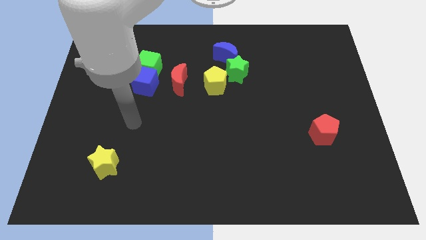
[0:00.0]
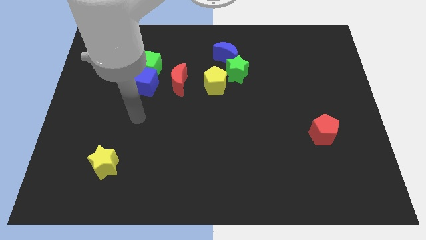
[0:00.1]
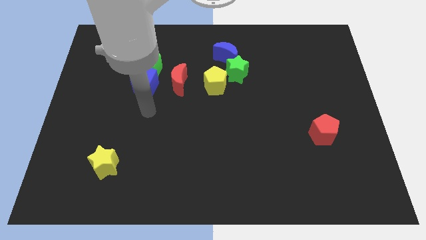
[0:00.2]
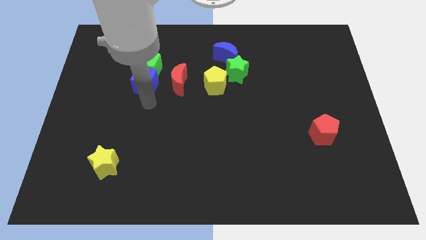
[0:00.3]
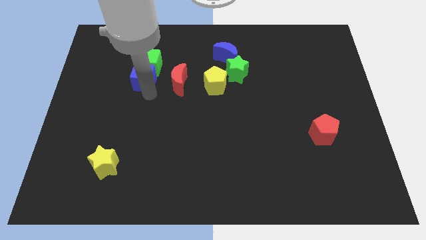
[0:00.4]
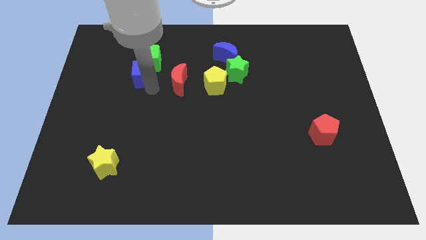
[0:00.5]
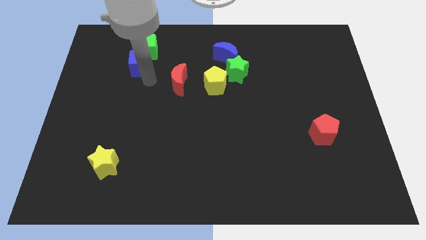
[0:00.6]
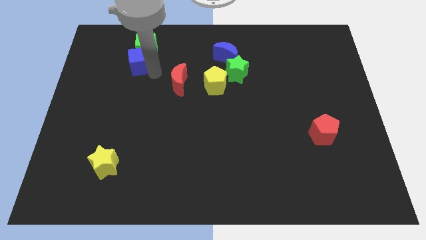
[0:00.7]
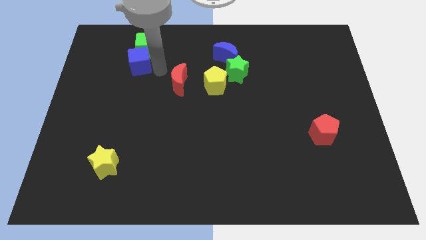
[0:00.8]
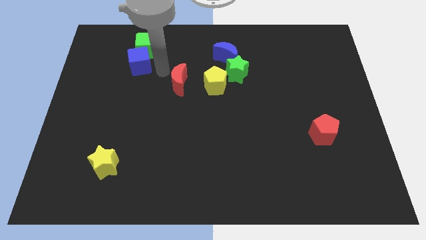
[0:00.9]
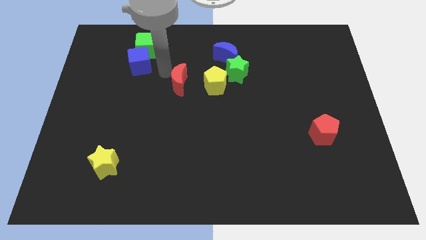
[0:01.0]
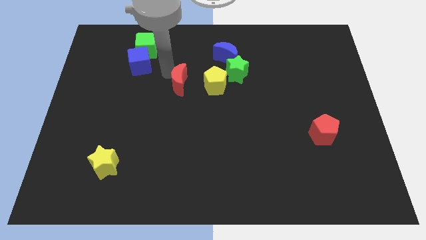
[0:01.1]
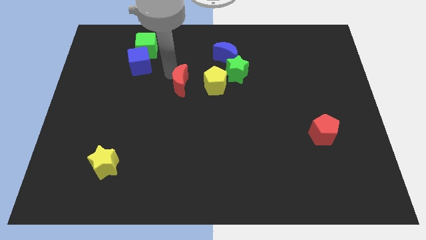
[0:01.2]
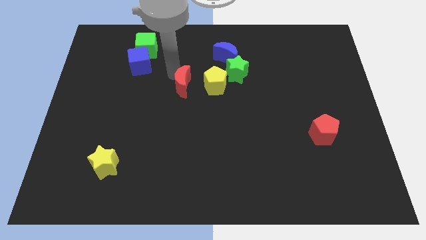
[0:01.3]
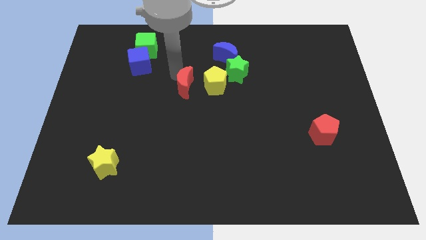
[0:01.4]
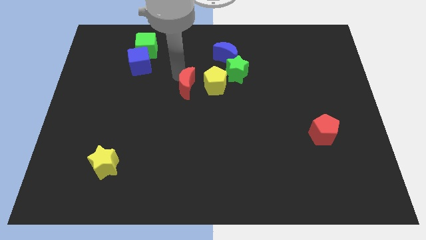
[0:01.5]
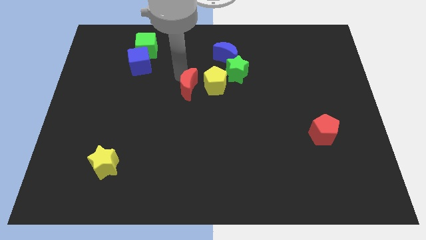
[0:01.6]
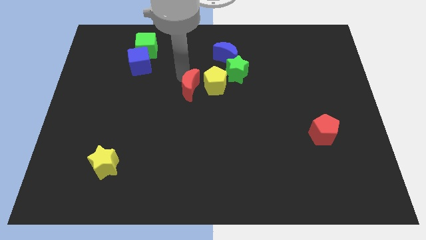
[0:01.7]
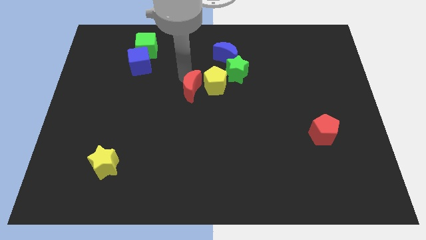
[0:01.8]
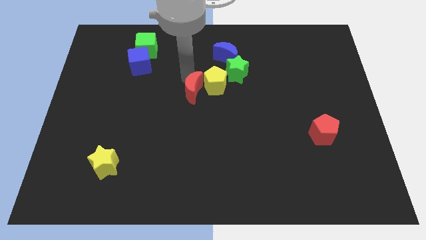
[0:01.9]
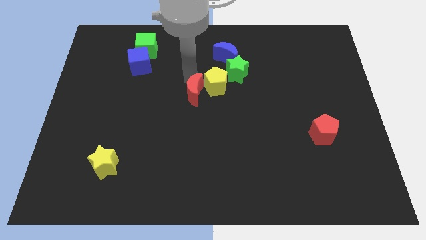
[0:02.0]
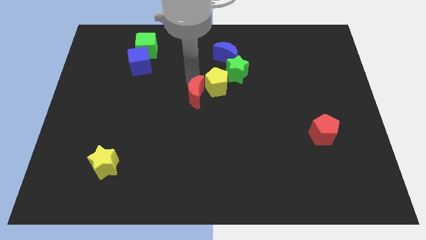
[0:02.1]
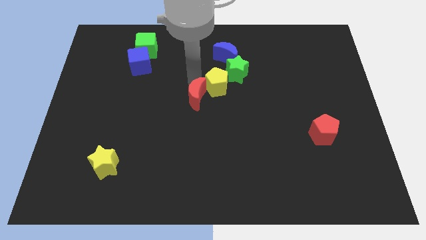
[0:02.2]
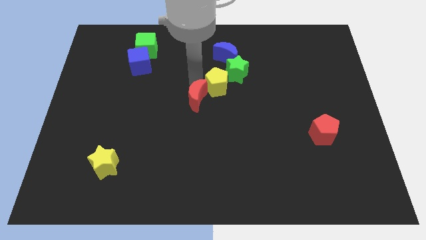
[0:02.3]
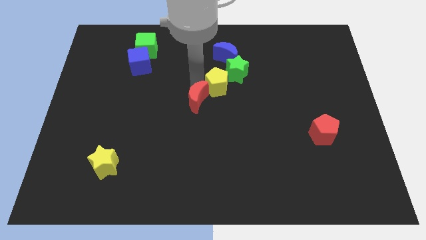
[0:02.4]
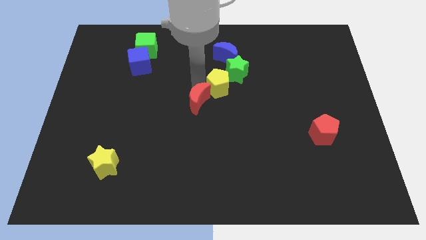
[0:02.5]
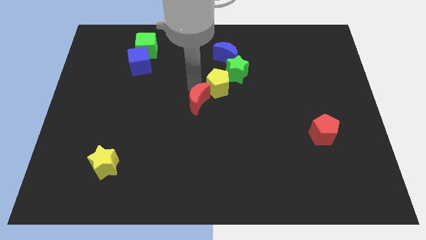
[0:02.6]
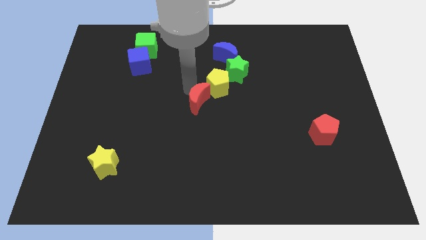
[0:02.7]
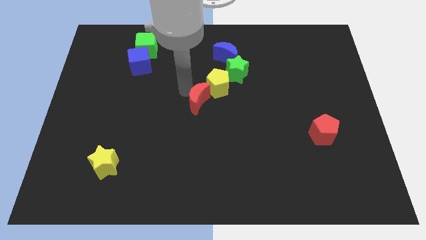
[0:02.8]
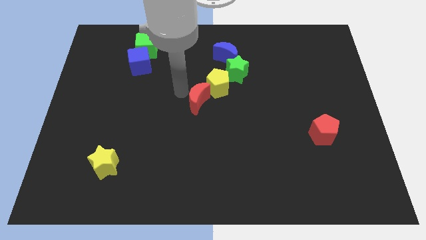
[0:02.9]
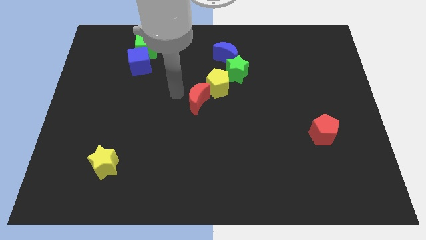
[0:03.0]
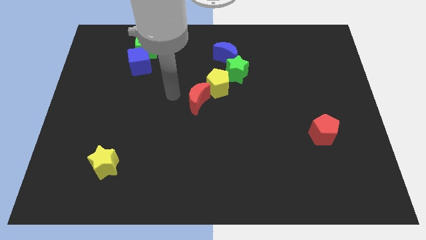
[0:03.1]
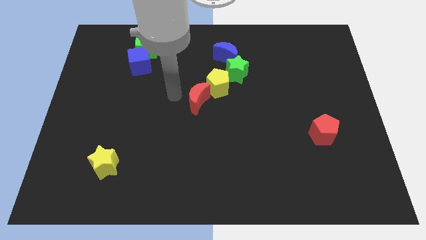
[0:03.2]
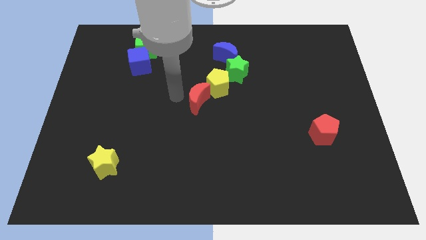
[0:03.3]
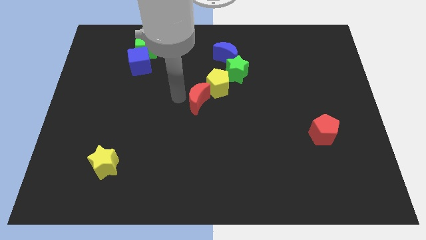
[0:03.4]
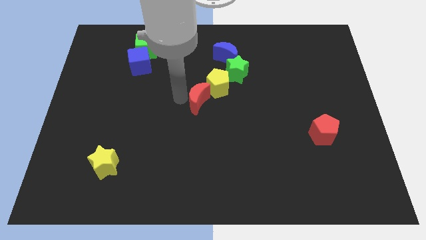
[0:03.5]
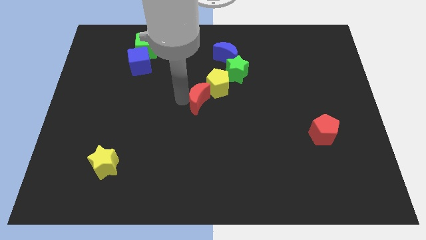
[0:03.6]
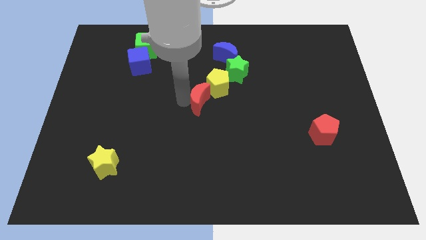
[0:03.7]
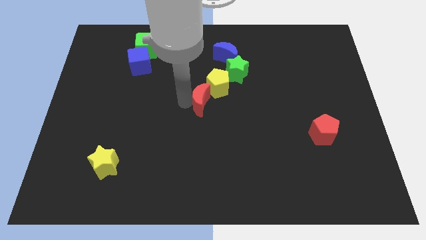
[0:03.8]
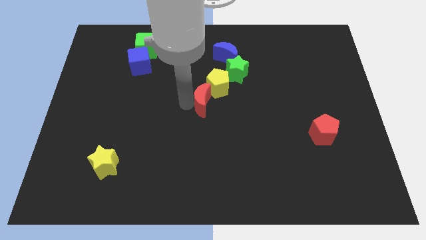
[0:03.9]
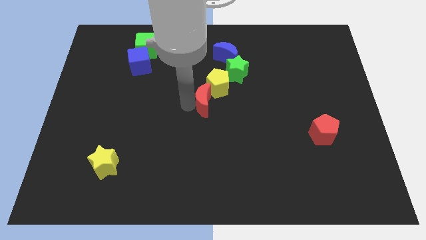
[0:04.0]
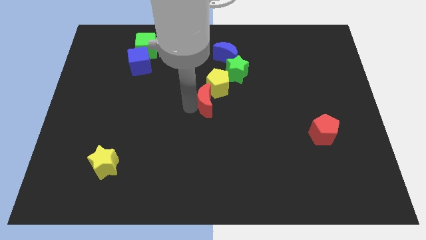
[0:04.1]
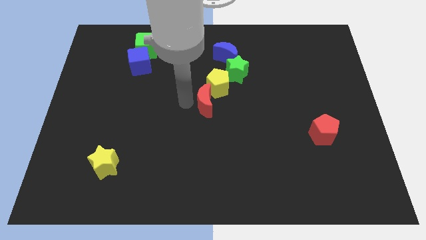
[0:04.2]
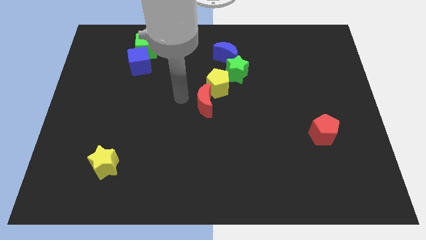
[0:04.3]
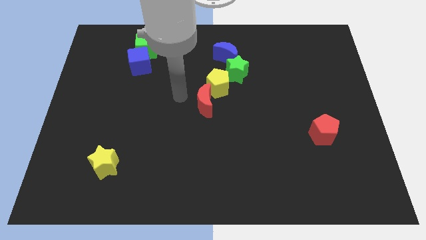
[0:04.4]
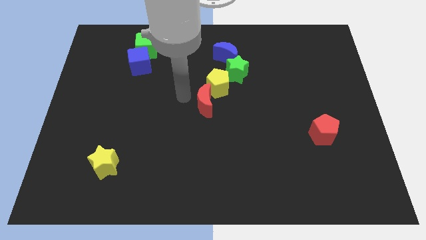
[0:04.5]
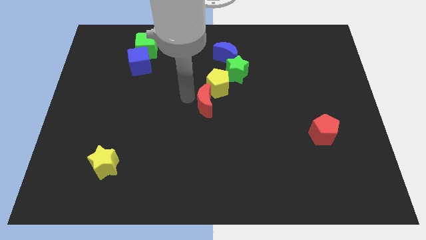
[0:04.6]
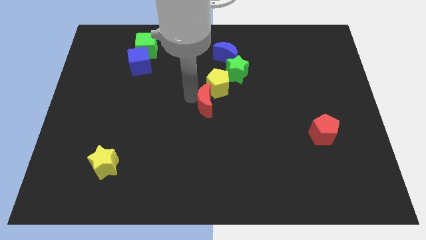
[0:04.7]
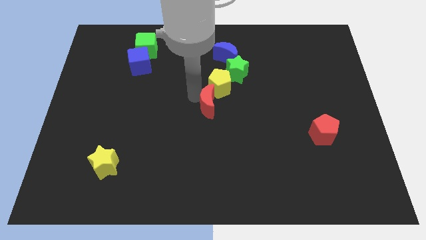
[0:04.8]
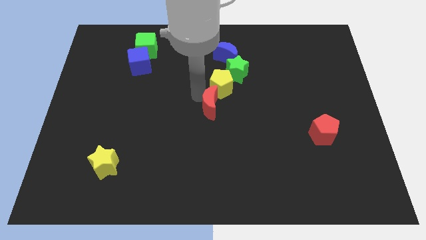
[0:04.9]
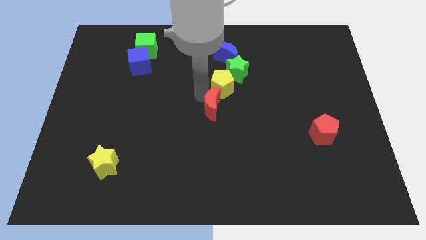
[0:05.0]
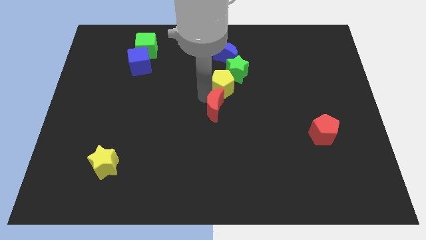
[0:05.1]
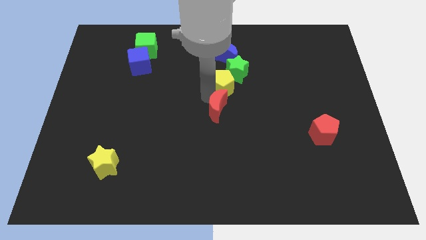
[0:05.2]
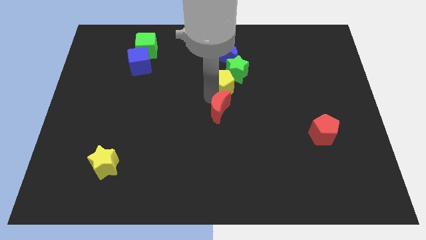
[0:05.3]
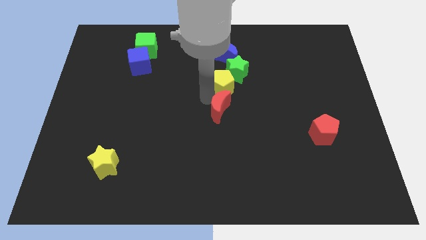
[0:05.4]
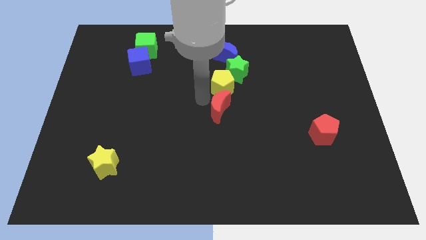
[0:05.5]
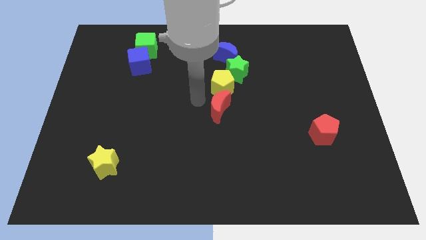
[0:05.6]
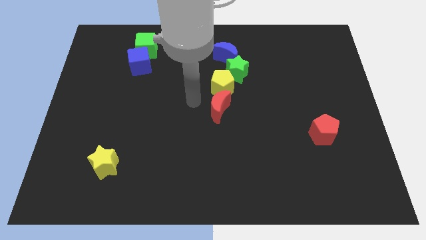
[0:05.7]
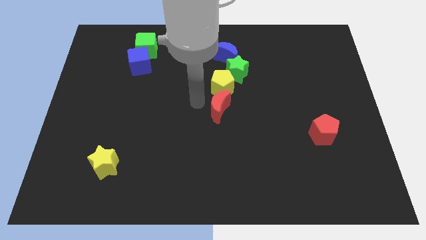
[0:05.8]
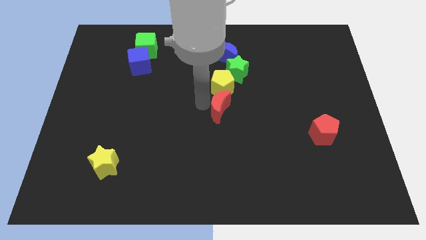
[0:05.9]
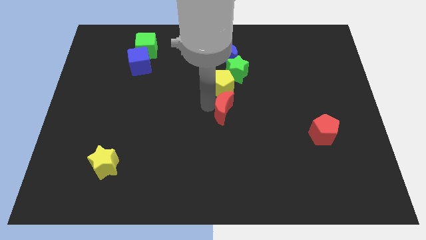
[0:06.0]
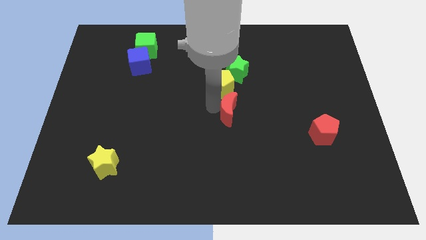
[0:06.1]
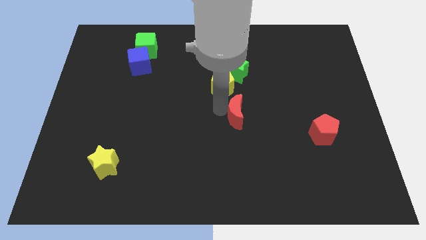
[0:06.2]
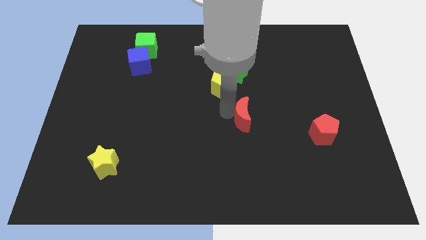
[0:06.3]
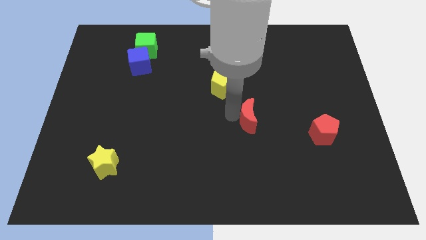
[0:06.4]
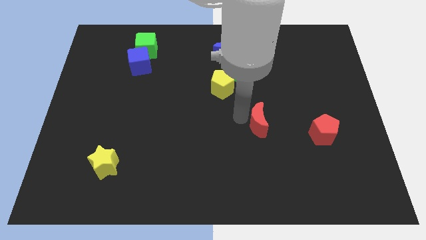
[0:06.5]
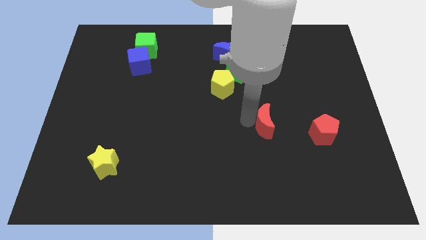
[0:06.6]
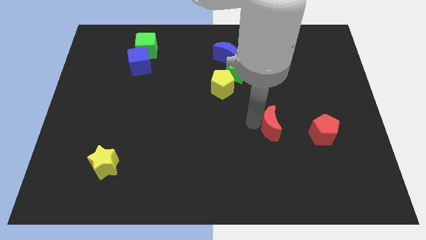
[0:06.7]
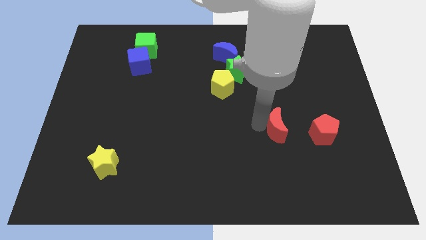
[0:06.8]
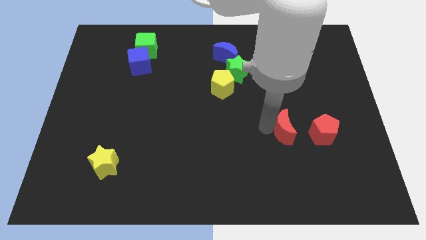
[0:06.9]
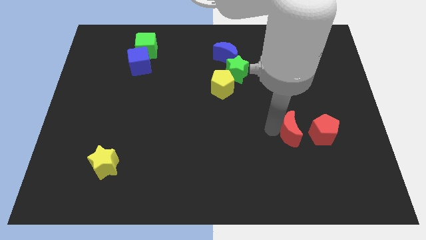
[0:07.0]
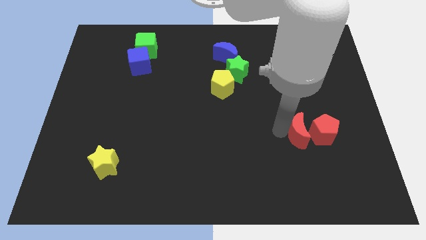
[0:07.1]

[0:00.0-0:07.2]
push the red moon next to the red pentagon
